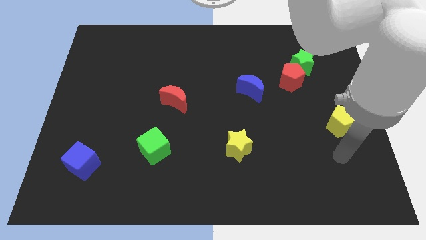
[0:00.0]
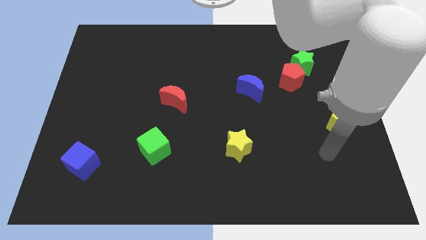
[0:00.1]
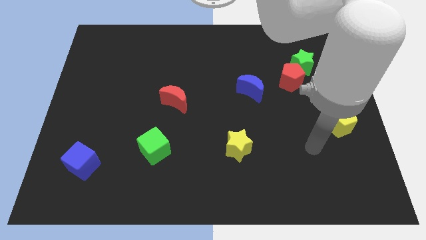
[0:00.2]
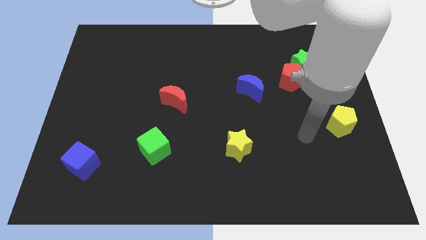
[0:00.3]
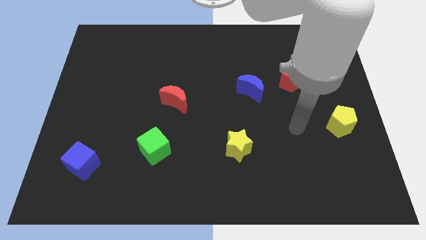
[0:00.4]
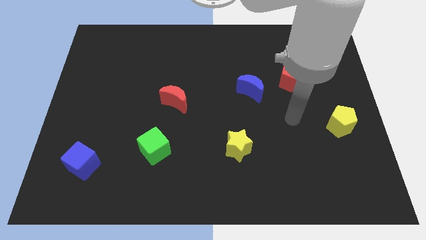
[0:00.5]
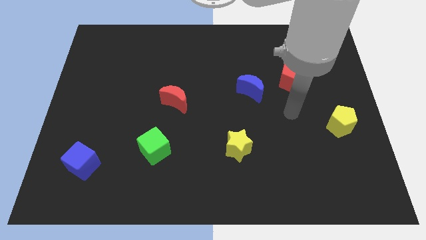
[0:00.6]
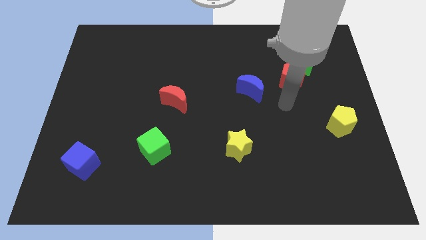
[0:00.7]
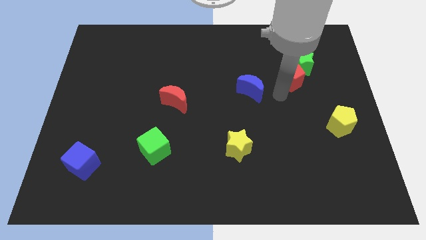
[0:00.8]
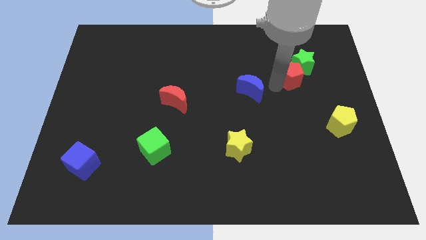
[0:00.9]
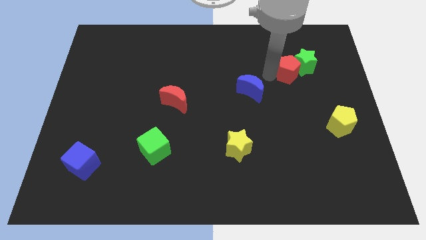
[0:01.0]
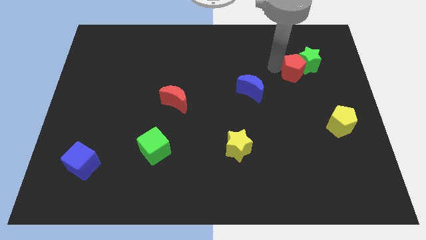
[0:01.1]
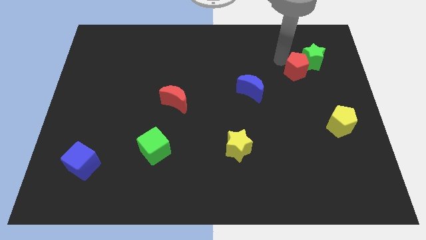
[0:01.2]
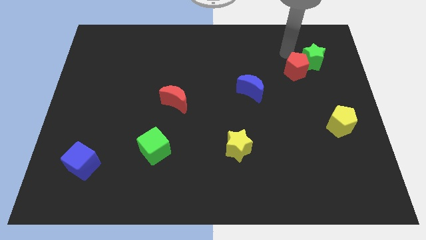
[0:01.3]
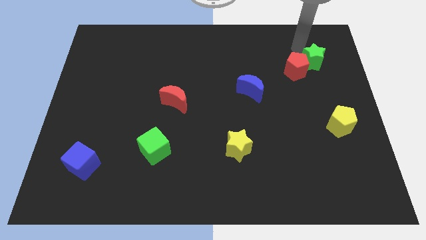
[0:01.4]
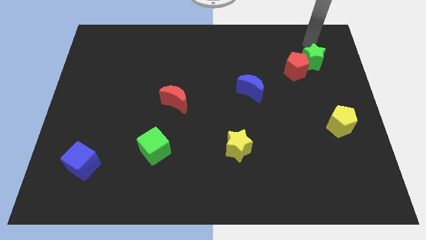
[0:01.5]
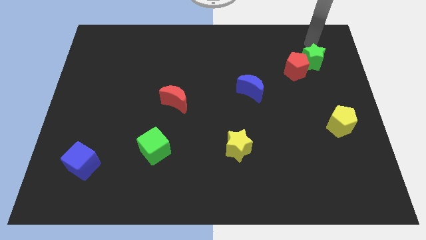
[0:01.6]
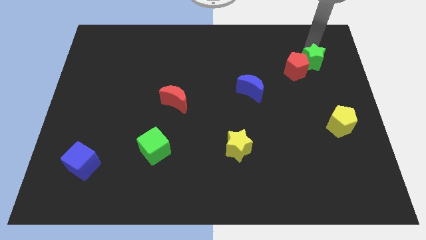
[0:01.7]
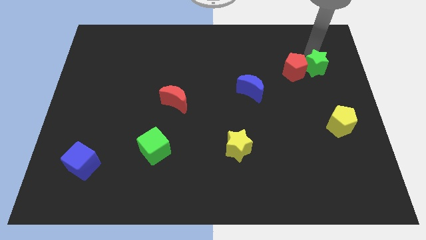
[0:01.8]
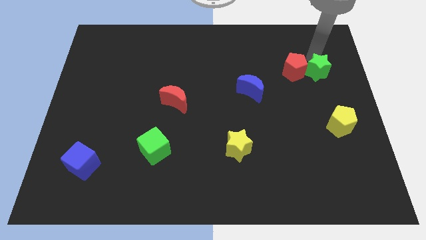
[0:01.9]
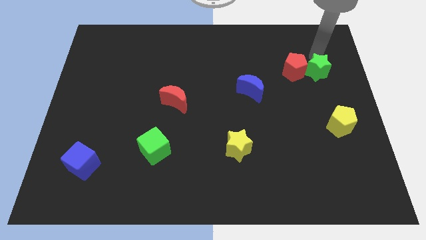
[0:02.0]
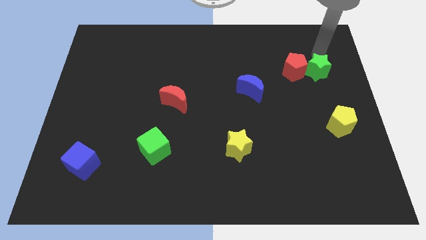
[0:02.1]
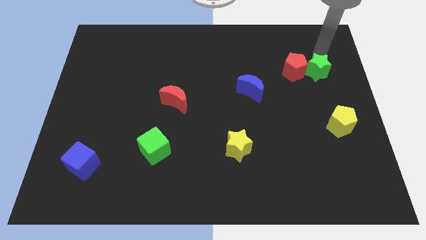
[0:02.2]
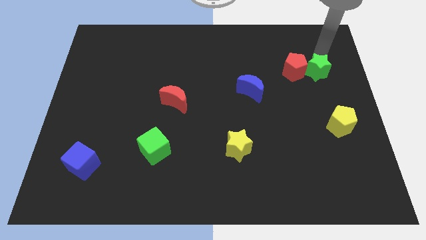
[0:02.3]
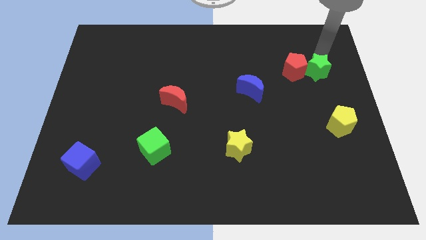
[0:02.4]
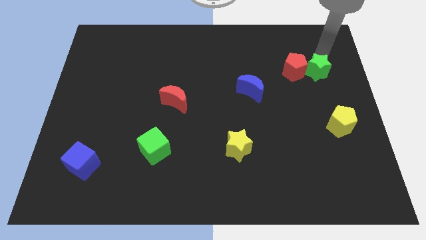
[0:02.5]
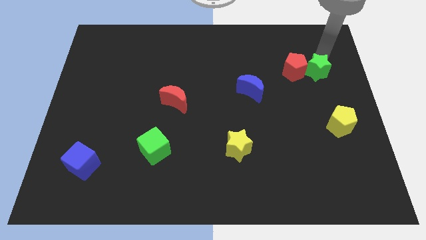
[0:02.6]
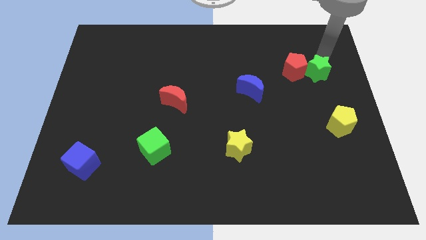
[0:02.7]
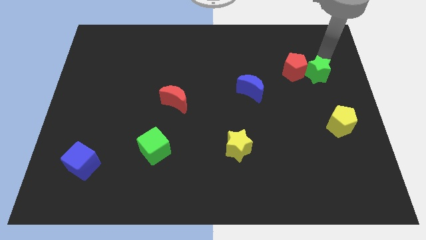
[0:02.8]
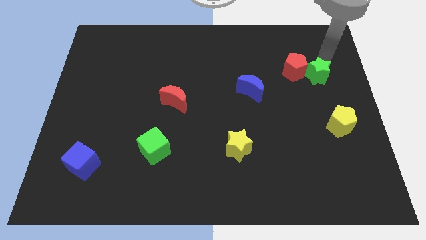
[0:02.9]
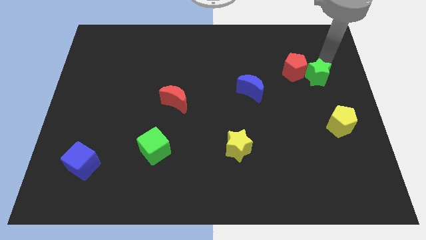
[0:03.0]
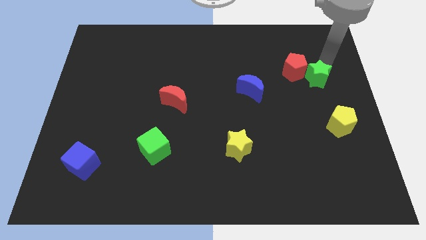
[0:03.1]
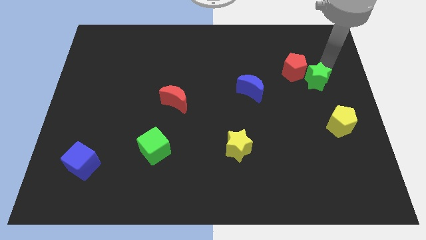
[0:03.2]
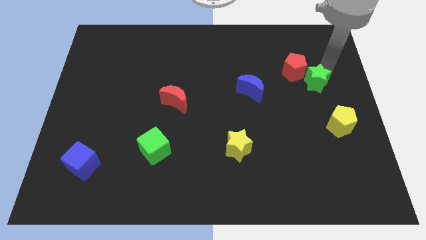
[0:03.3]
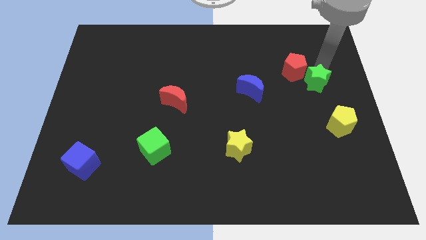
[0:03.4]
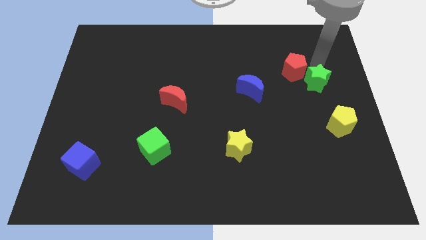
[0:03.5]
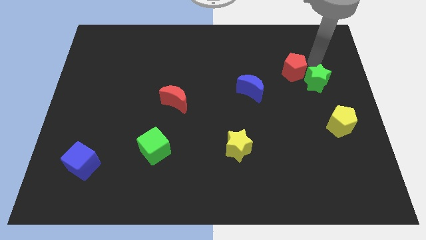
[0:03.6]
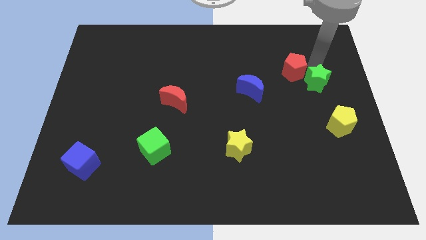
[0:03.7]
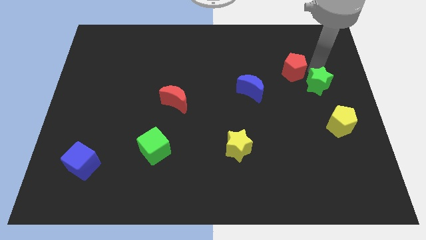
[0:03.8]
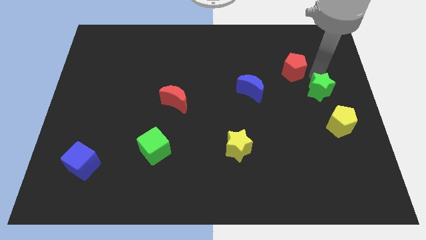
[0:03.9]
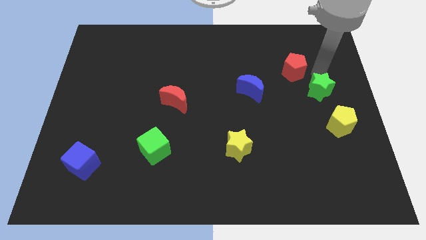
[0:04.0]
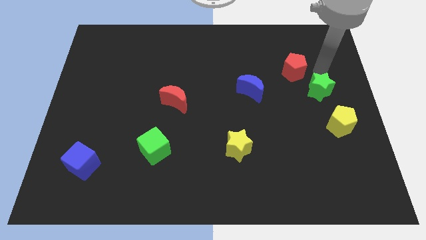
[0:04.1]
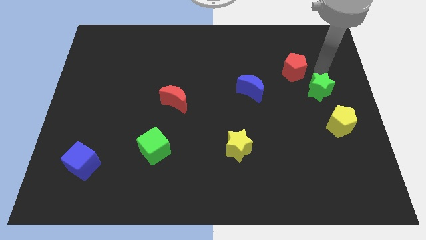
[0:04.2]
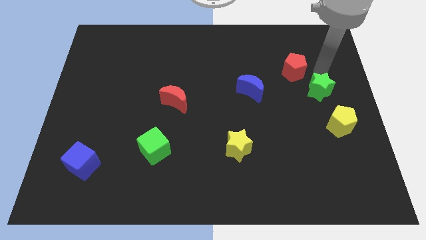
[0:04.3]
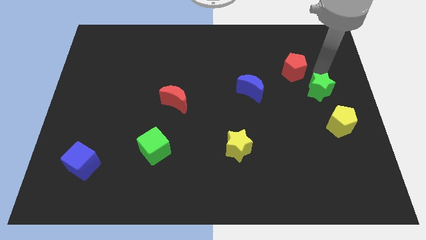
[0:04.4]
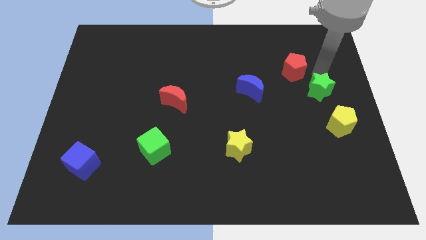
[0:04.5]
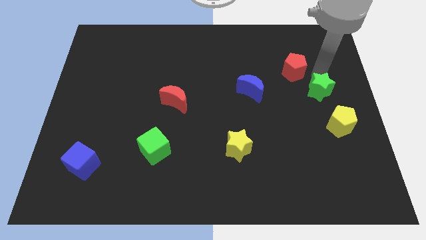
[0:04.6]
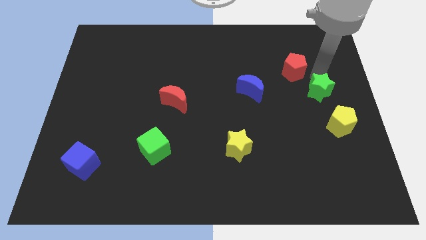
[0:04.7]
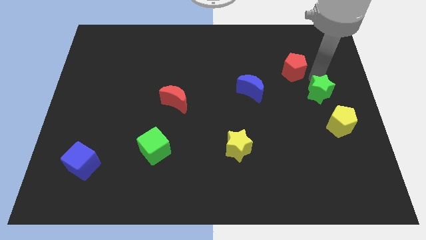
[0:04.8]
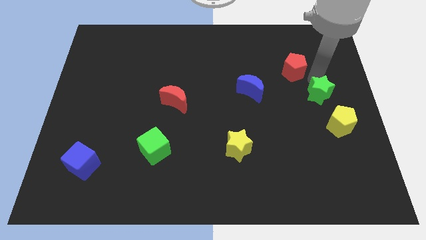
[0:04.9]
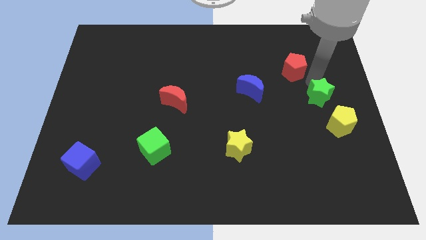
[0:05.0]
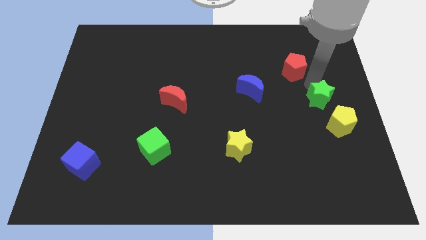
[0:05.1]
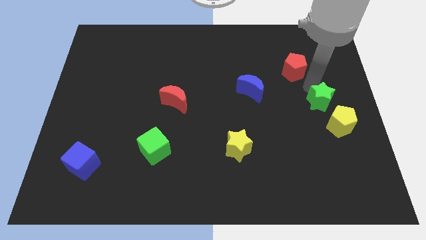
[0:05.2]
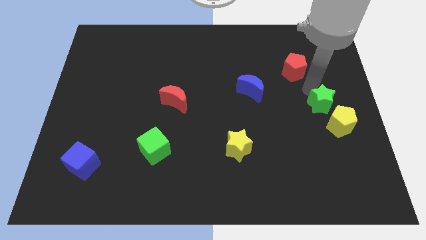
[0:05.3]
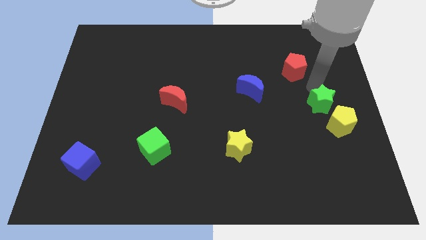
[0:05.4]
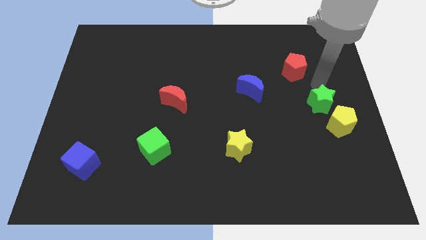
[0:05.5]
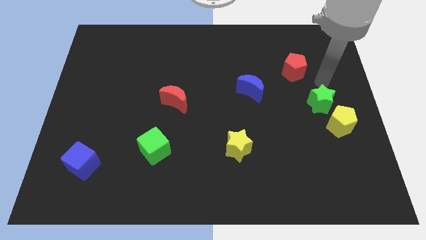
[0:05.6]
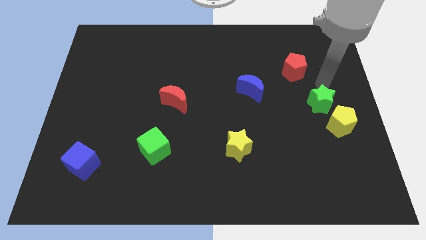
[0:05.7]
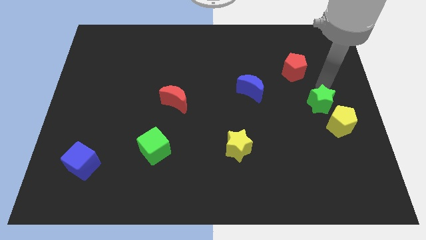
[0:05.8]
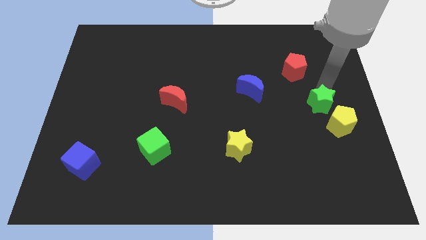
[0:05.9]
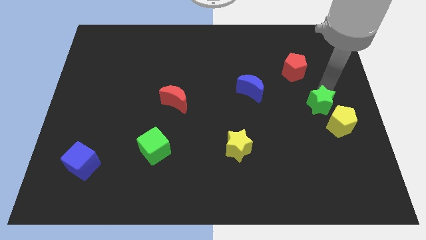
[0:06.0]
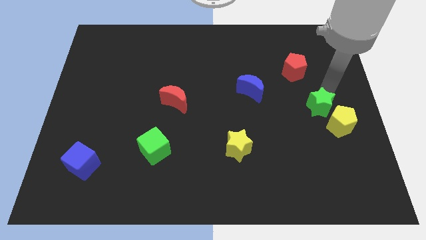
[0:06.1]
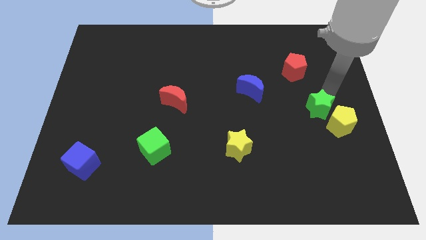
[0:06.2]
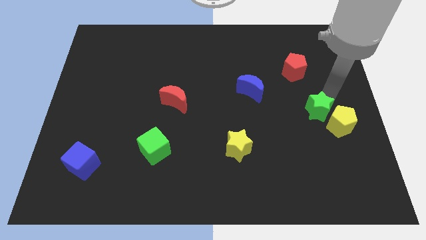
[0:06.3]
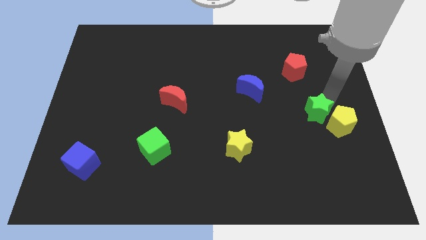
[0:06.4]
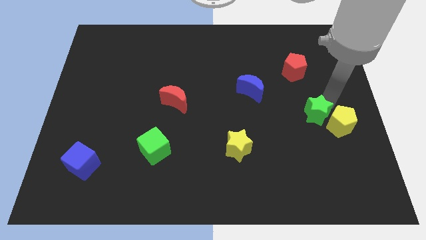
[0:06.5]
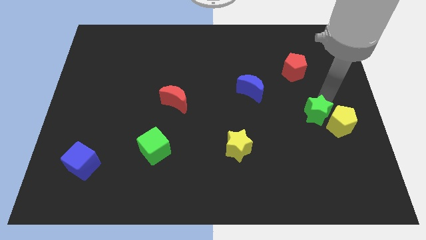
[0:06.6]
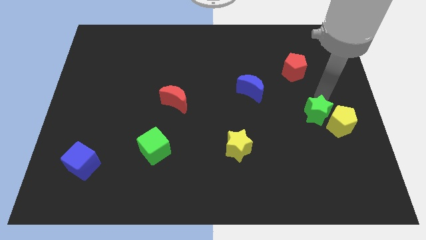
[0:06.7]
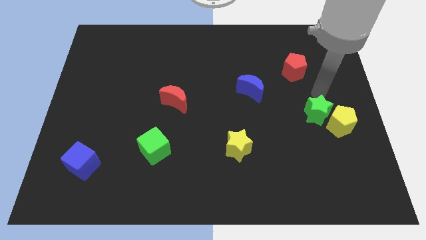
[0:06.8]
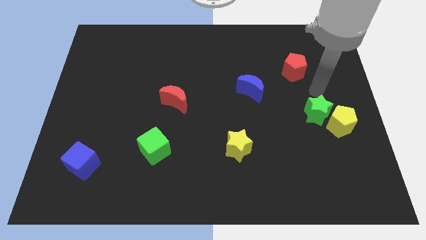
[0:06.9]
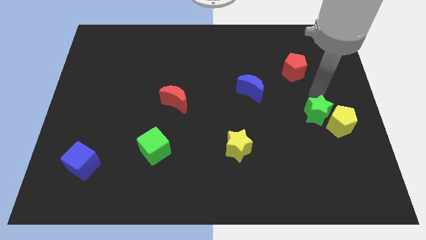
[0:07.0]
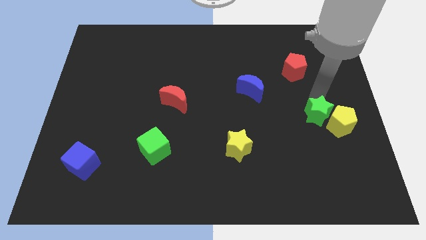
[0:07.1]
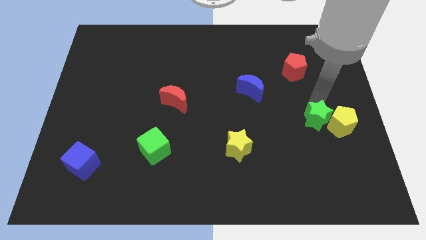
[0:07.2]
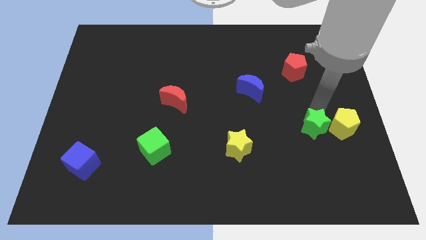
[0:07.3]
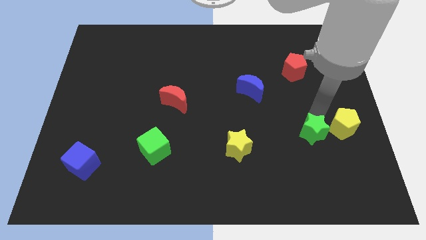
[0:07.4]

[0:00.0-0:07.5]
push the green star downwards

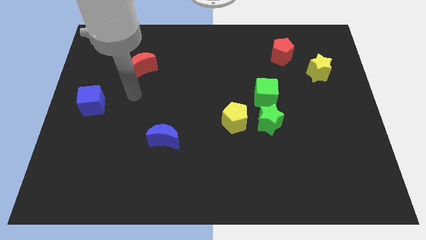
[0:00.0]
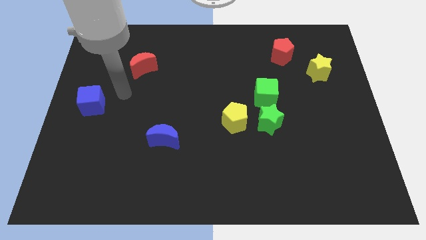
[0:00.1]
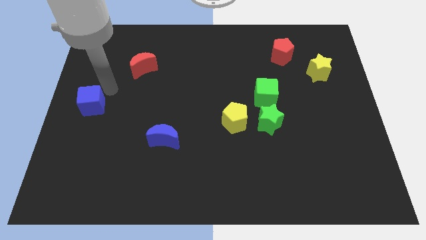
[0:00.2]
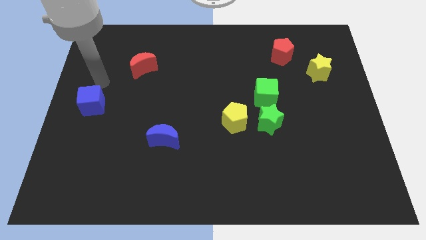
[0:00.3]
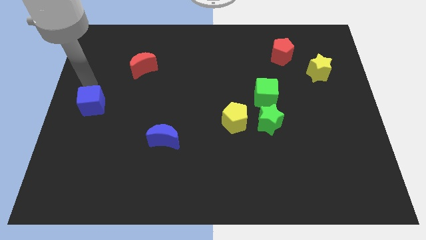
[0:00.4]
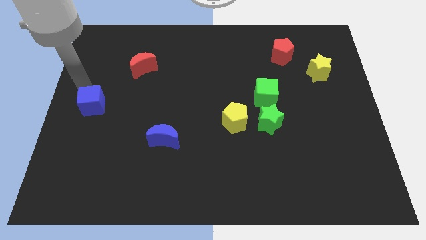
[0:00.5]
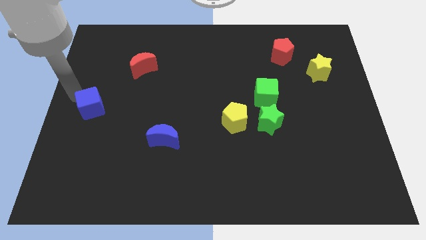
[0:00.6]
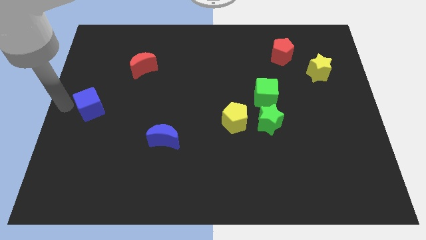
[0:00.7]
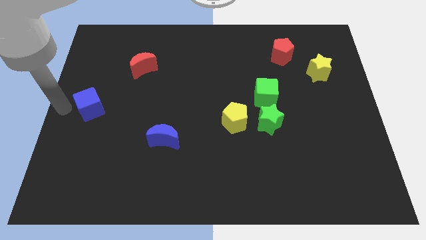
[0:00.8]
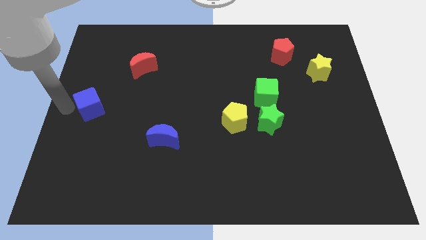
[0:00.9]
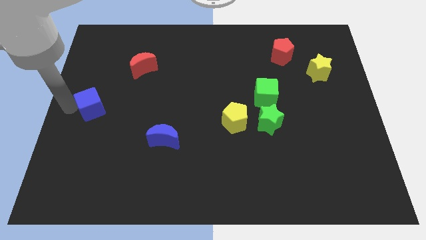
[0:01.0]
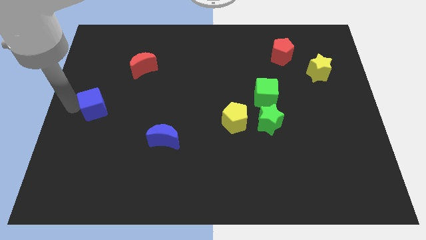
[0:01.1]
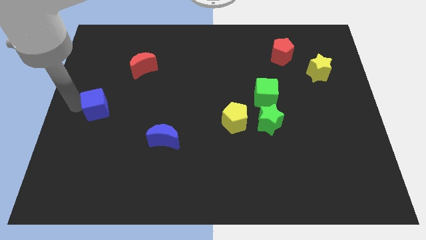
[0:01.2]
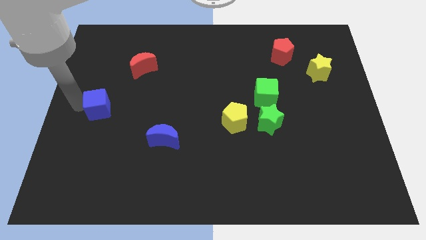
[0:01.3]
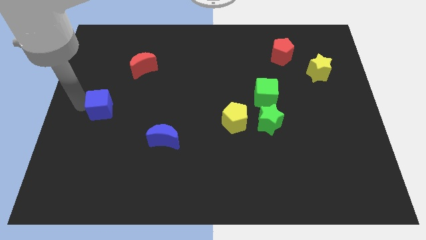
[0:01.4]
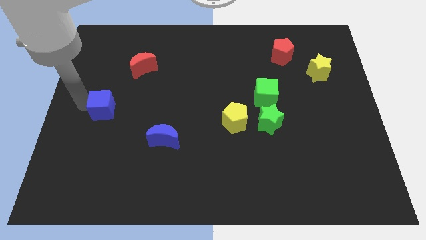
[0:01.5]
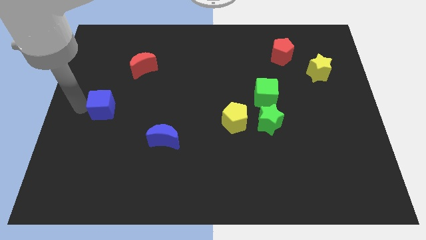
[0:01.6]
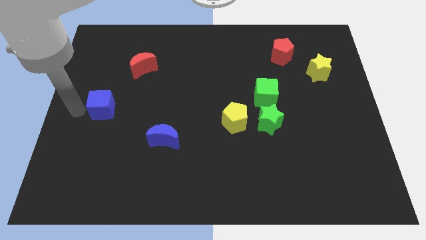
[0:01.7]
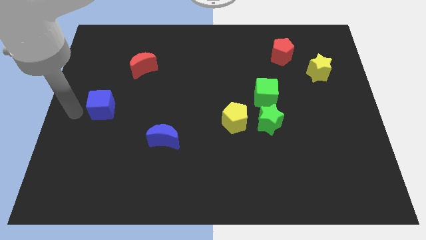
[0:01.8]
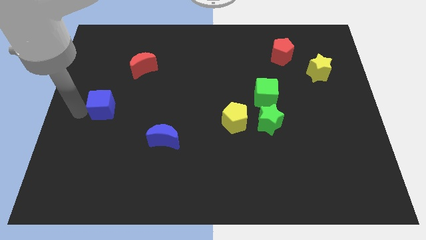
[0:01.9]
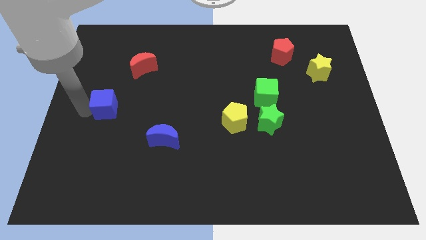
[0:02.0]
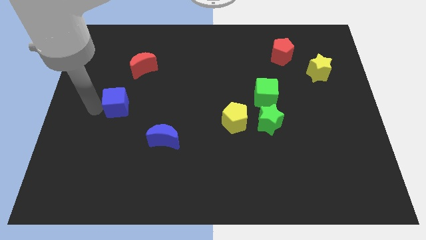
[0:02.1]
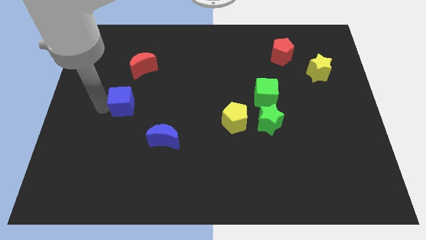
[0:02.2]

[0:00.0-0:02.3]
push the blue cube right slightly
